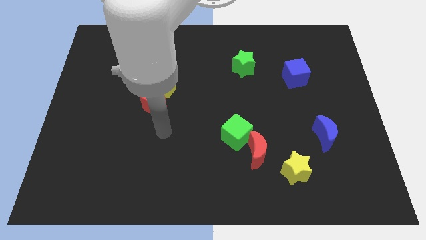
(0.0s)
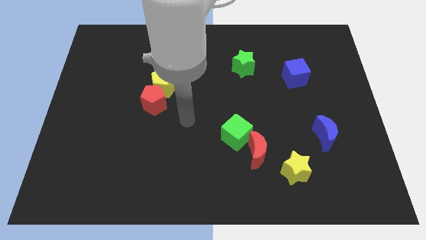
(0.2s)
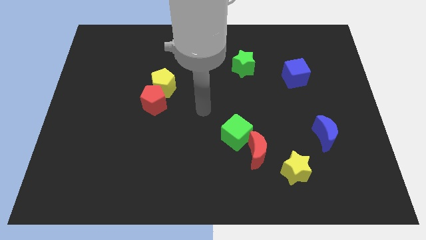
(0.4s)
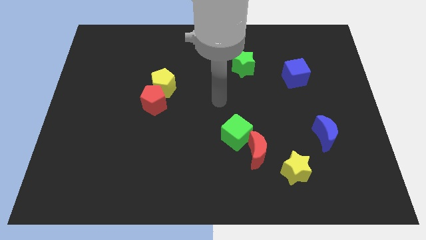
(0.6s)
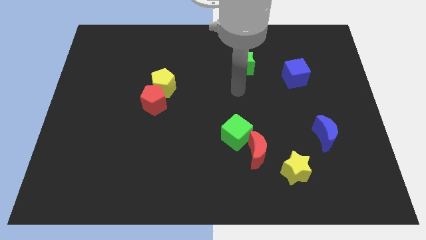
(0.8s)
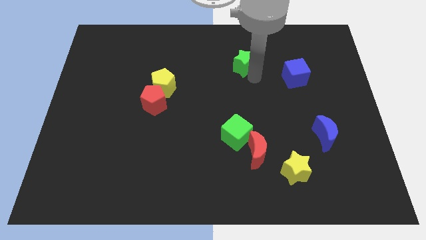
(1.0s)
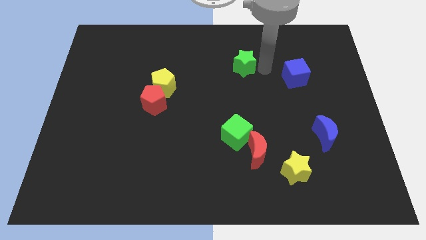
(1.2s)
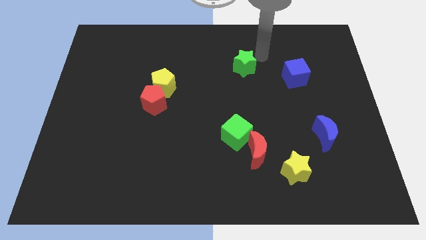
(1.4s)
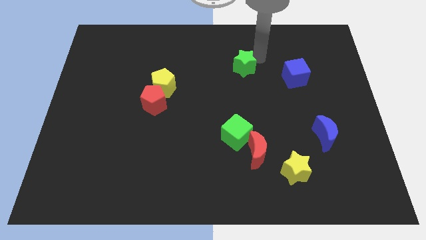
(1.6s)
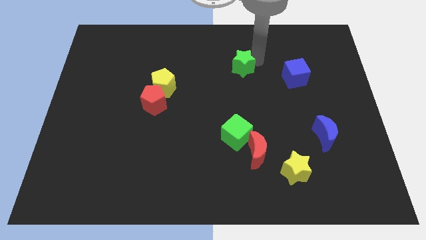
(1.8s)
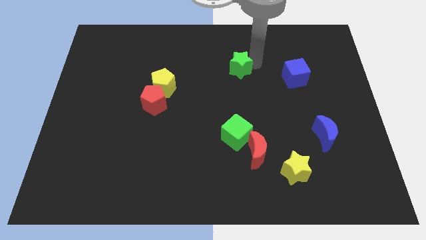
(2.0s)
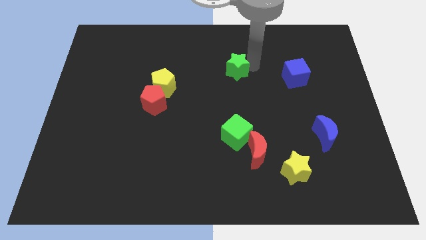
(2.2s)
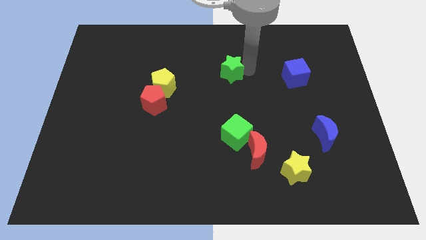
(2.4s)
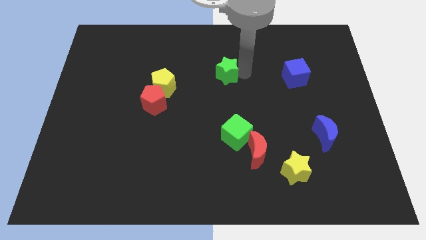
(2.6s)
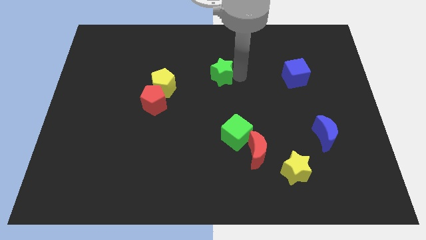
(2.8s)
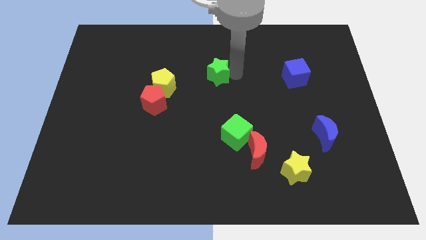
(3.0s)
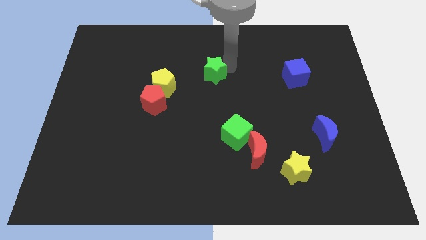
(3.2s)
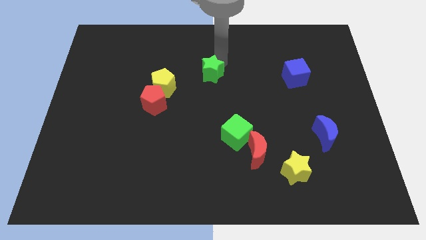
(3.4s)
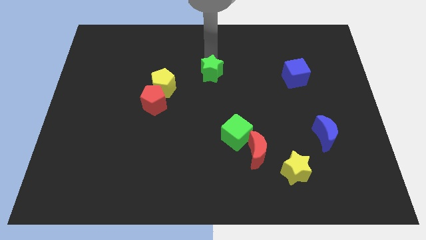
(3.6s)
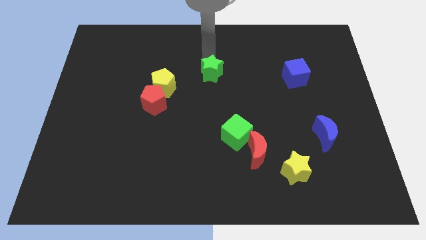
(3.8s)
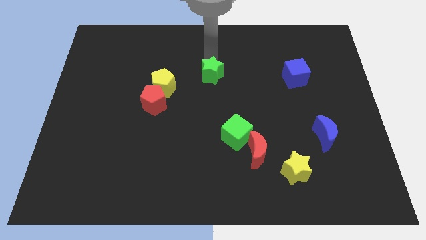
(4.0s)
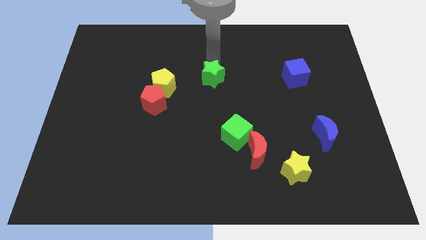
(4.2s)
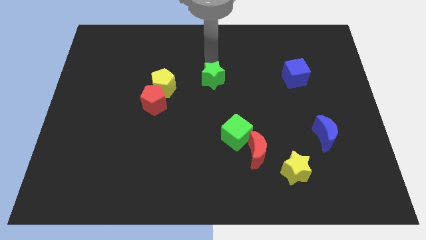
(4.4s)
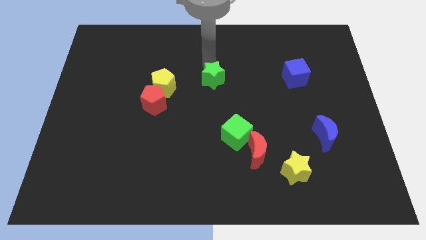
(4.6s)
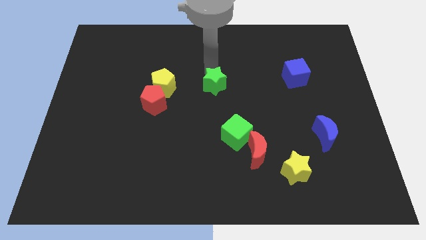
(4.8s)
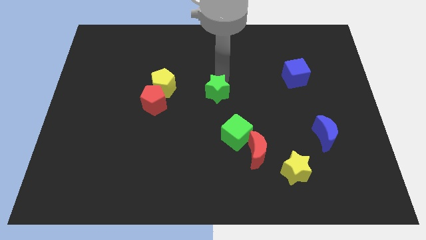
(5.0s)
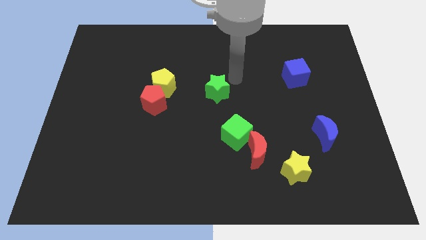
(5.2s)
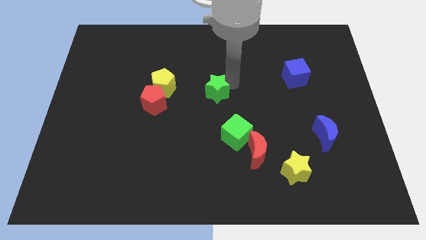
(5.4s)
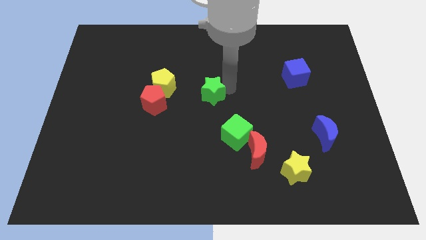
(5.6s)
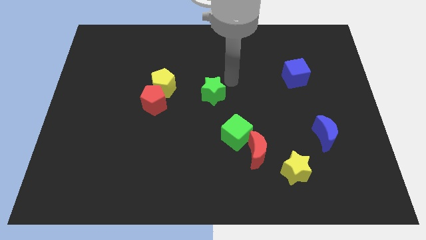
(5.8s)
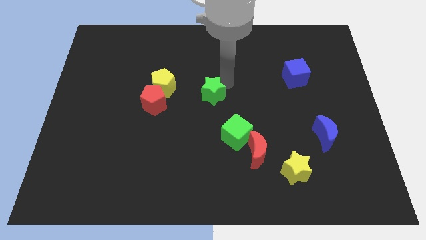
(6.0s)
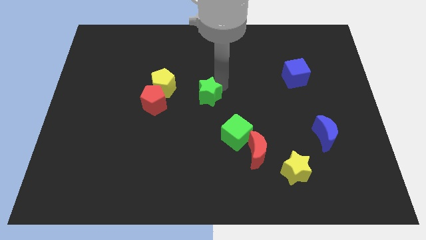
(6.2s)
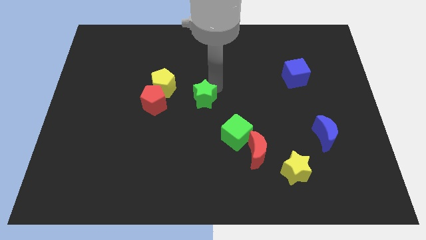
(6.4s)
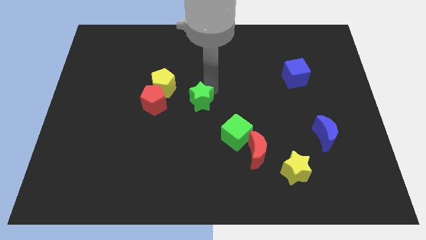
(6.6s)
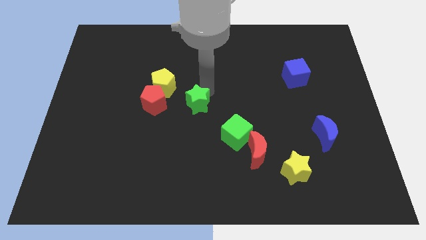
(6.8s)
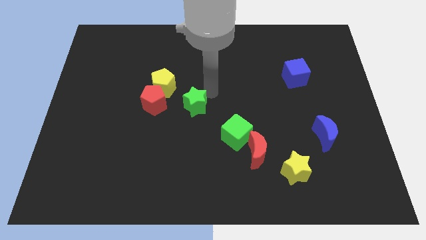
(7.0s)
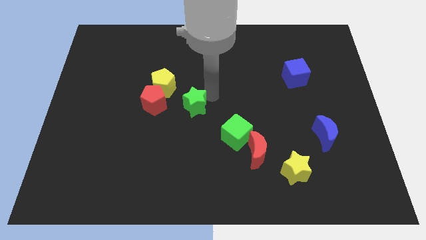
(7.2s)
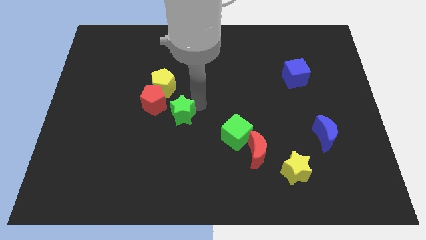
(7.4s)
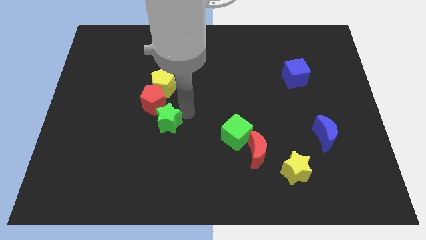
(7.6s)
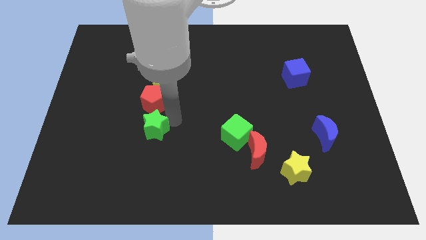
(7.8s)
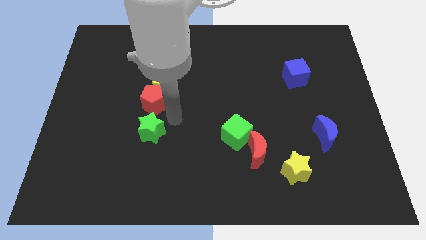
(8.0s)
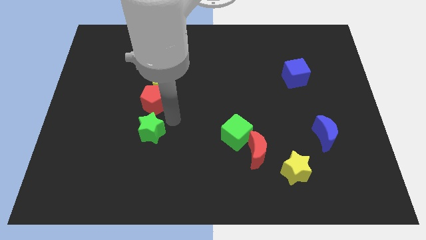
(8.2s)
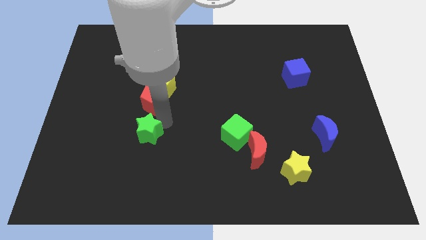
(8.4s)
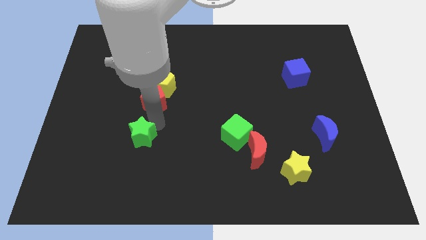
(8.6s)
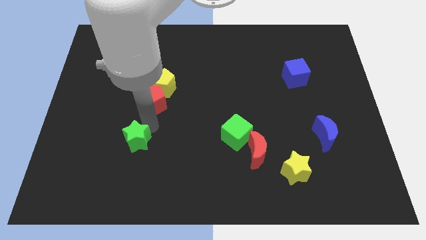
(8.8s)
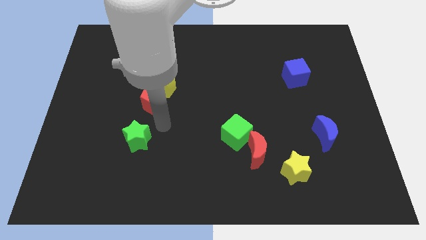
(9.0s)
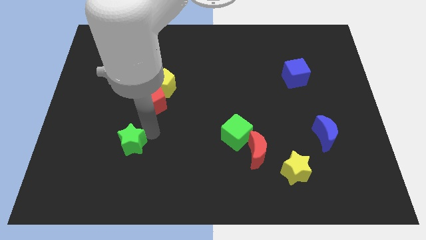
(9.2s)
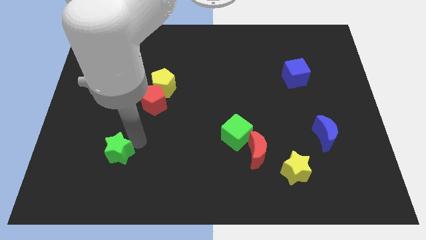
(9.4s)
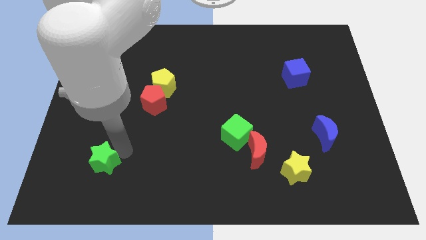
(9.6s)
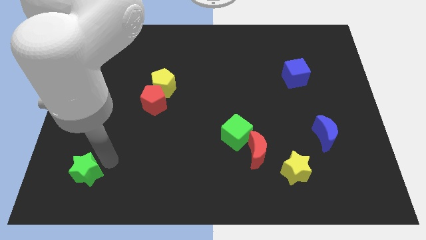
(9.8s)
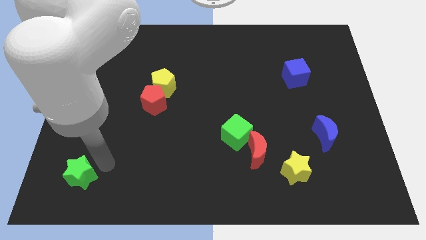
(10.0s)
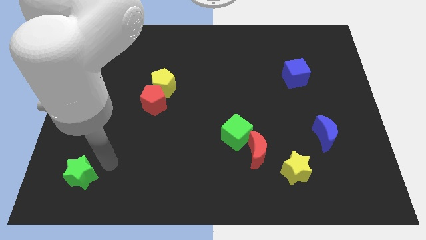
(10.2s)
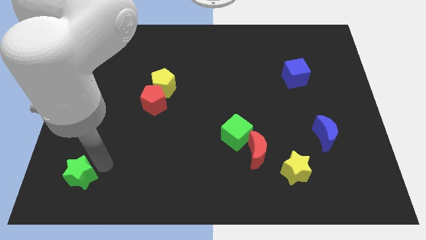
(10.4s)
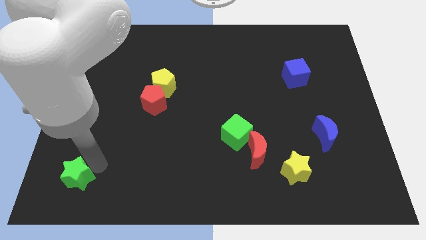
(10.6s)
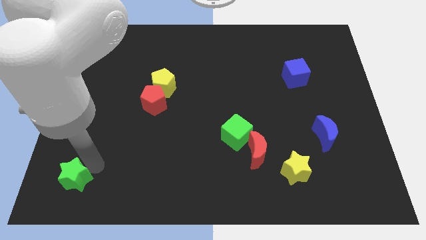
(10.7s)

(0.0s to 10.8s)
put the green star to the bottom left corner

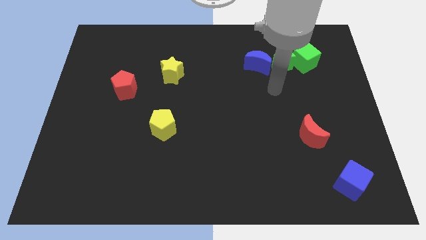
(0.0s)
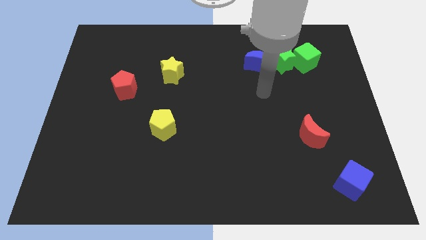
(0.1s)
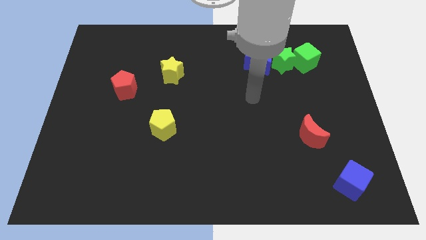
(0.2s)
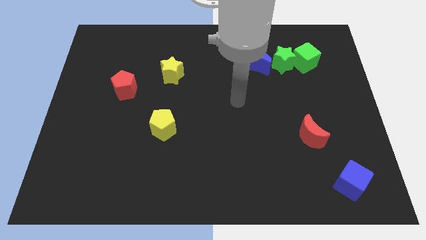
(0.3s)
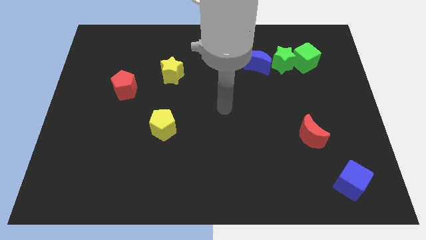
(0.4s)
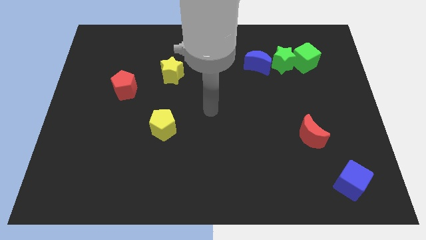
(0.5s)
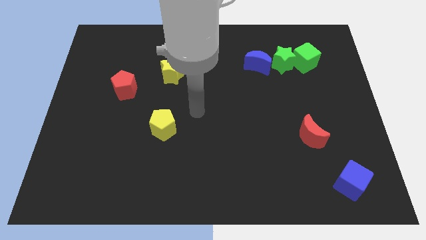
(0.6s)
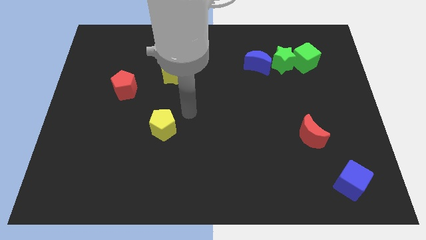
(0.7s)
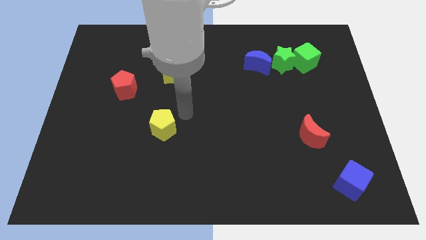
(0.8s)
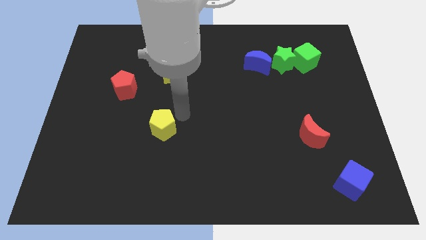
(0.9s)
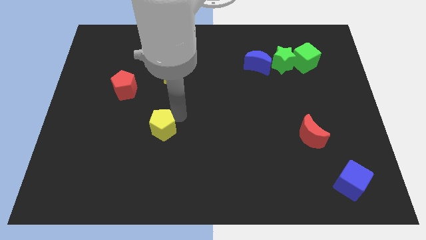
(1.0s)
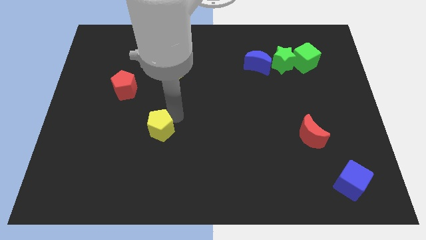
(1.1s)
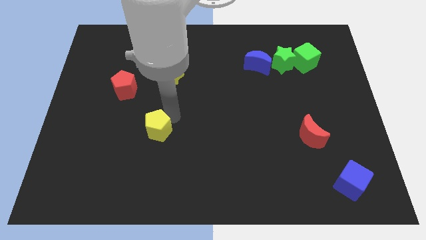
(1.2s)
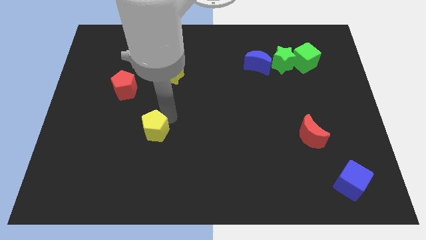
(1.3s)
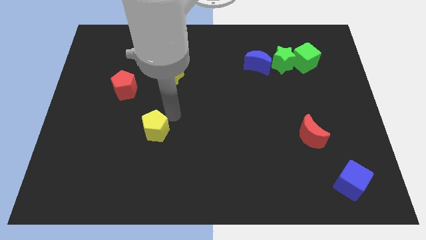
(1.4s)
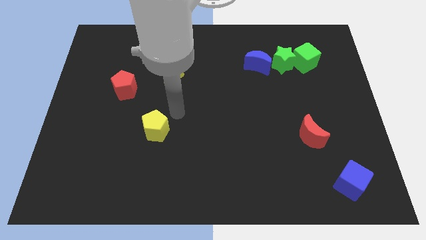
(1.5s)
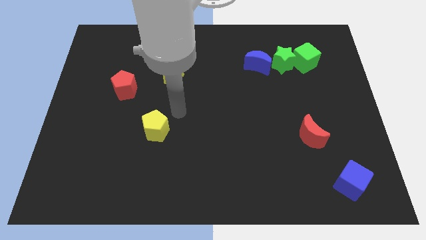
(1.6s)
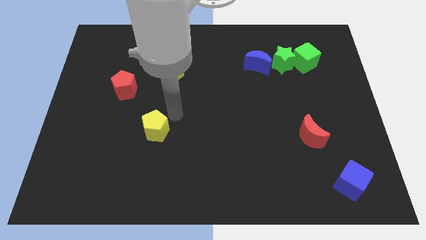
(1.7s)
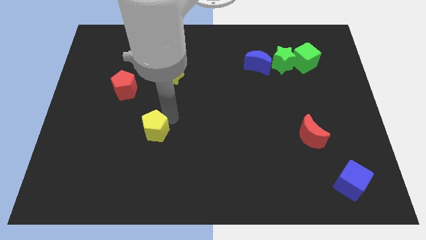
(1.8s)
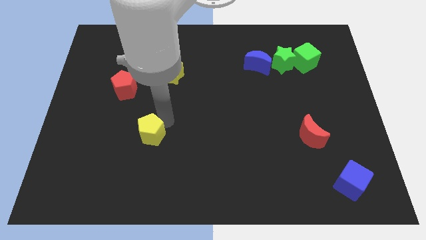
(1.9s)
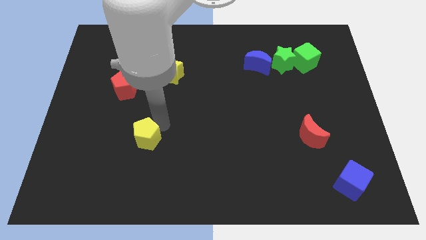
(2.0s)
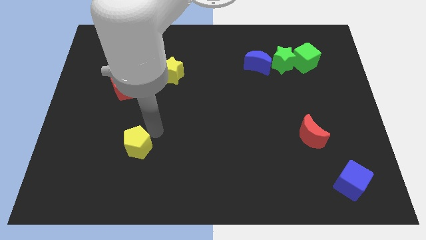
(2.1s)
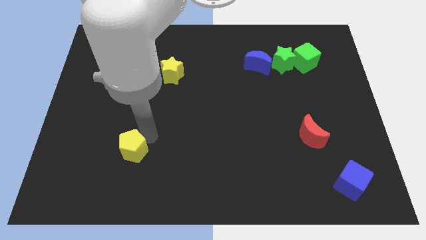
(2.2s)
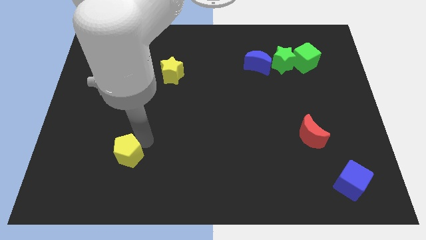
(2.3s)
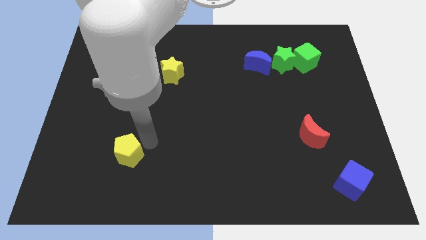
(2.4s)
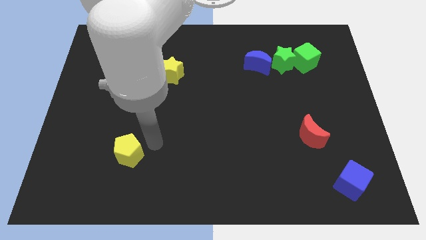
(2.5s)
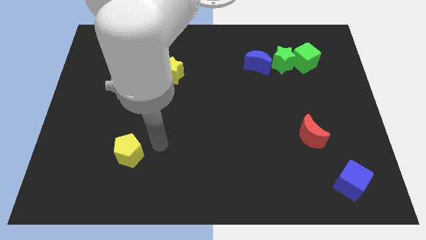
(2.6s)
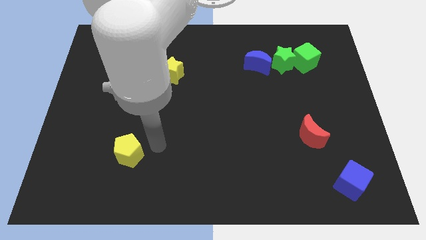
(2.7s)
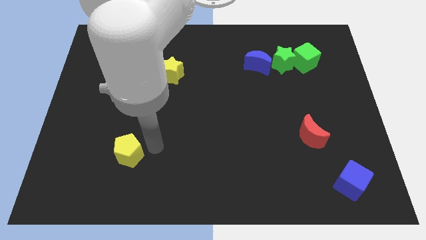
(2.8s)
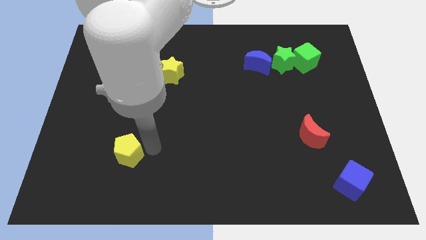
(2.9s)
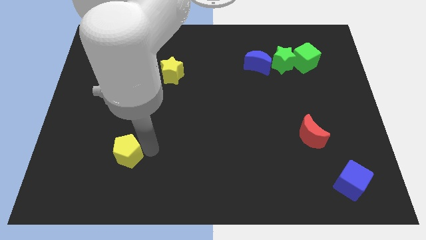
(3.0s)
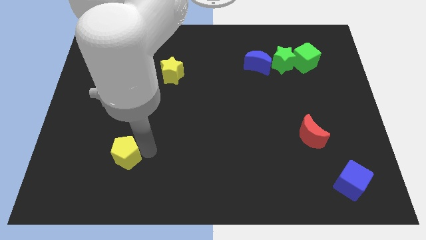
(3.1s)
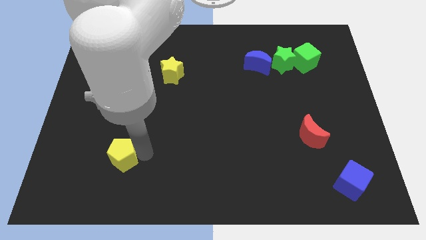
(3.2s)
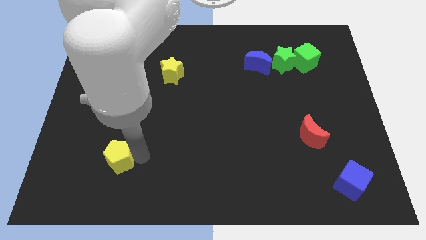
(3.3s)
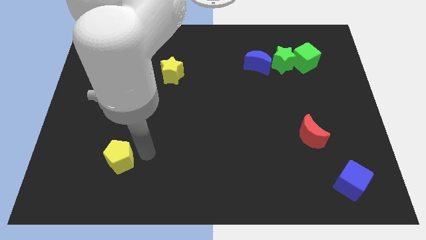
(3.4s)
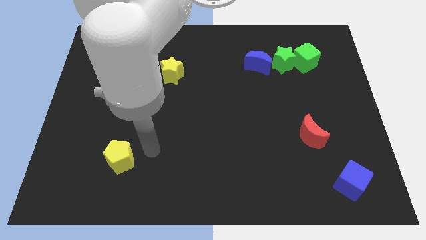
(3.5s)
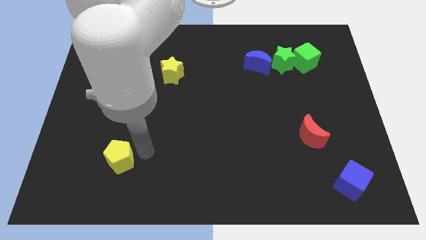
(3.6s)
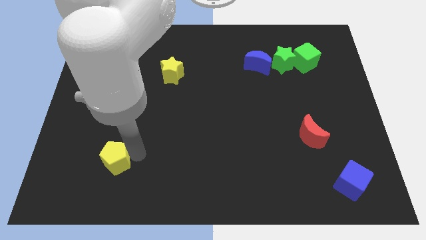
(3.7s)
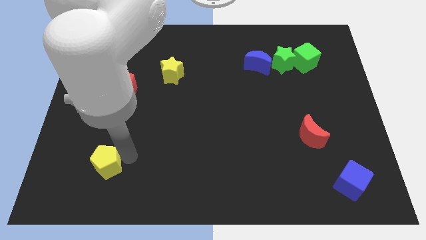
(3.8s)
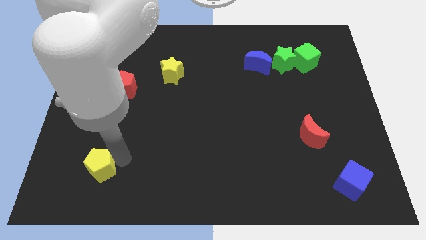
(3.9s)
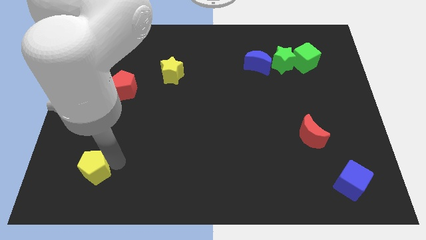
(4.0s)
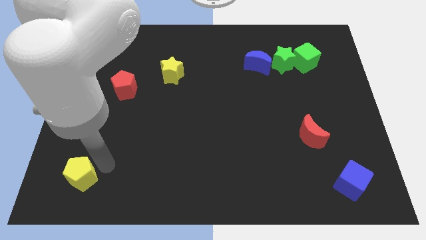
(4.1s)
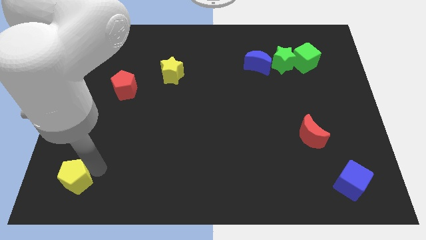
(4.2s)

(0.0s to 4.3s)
put the yellow pentagon to the lower left corner
